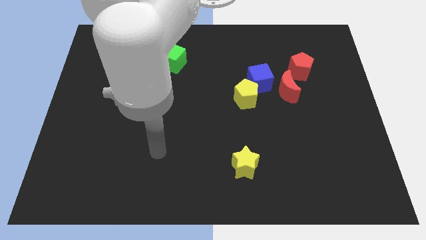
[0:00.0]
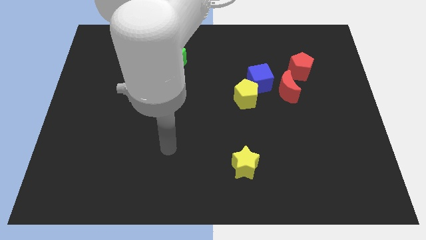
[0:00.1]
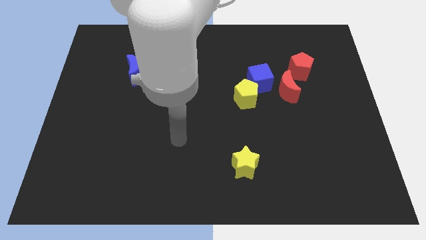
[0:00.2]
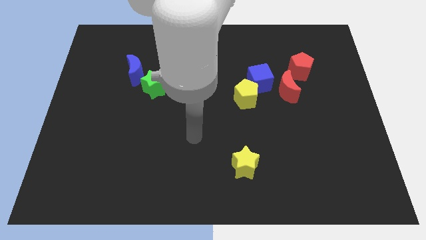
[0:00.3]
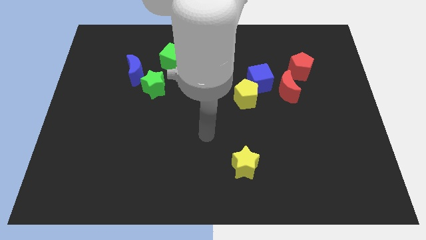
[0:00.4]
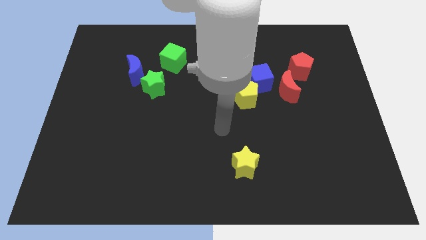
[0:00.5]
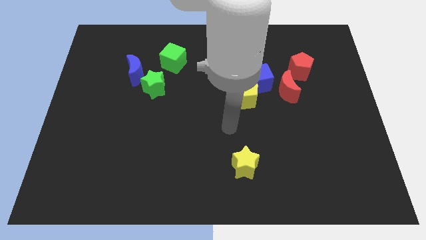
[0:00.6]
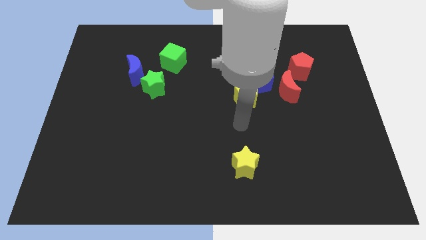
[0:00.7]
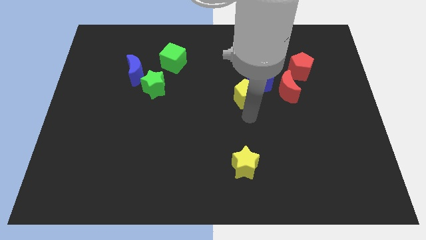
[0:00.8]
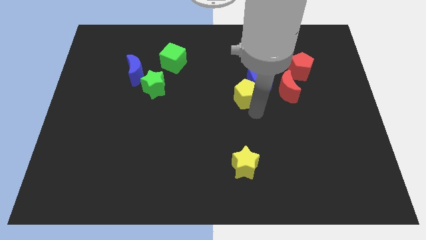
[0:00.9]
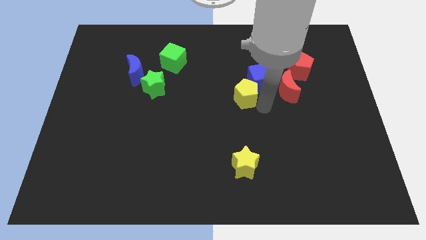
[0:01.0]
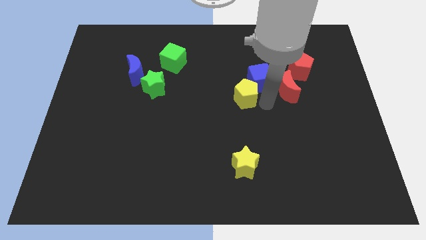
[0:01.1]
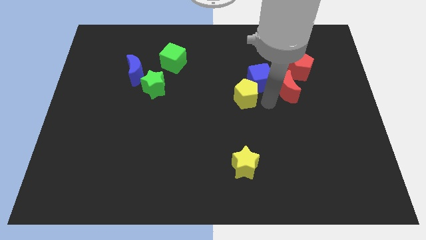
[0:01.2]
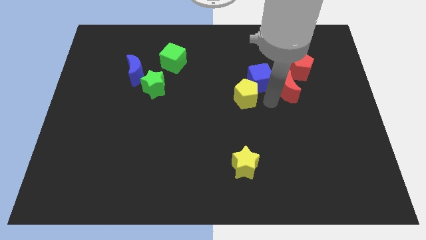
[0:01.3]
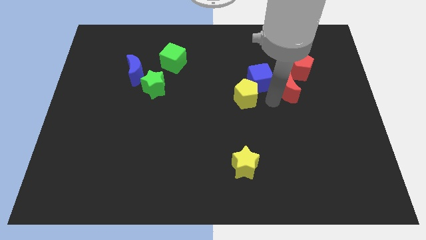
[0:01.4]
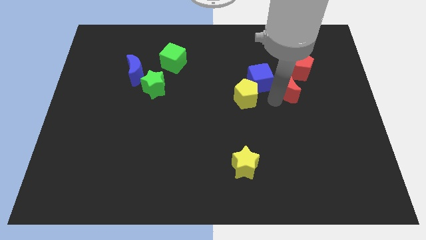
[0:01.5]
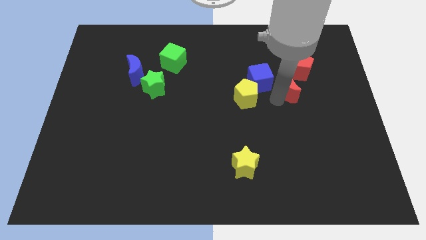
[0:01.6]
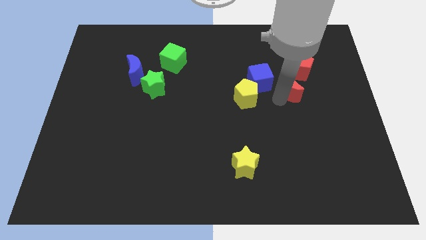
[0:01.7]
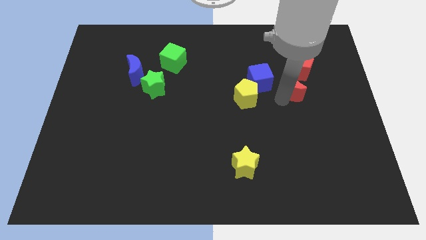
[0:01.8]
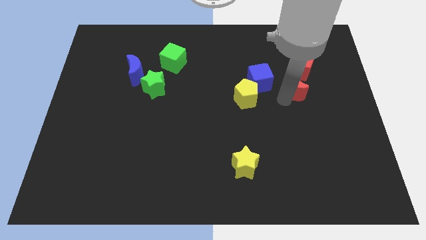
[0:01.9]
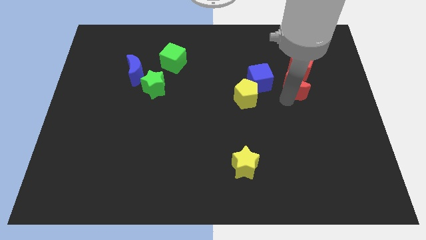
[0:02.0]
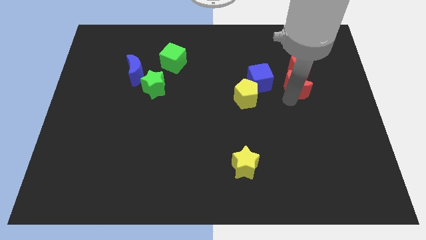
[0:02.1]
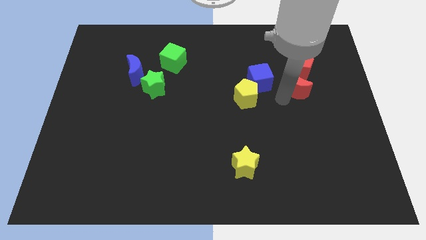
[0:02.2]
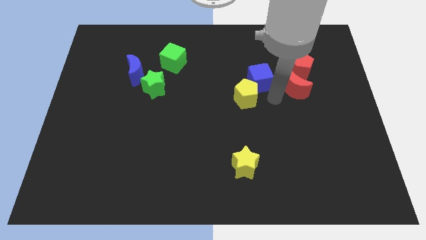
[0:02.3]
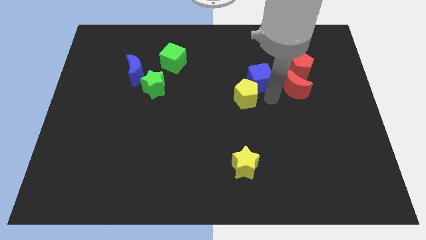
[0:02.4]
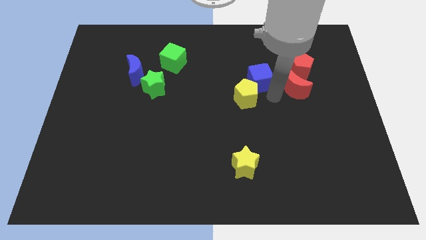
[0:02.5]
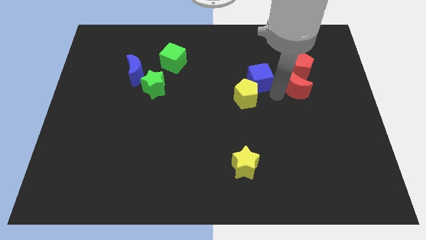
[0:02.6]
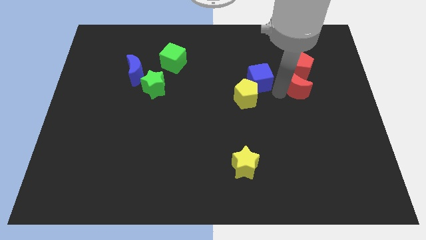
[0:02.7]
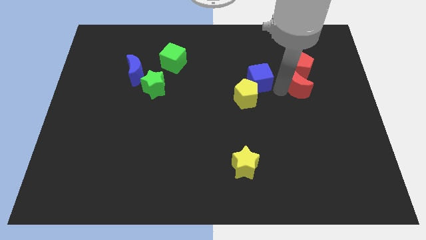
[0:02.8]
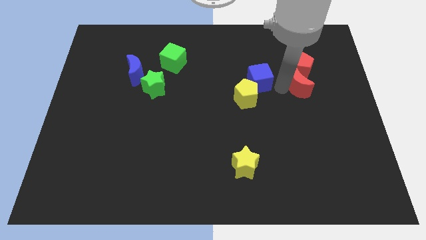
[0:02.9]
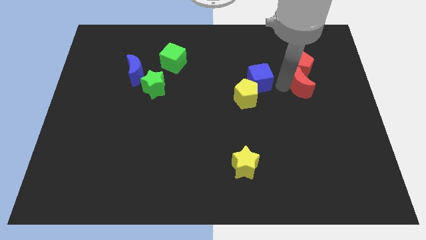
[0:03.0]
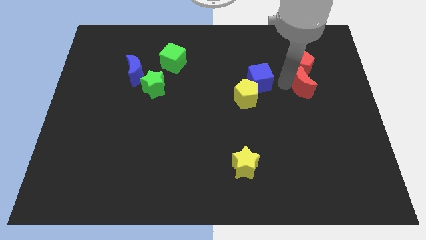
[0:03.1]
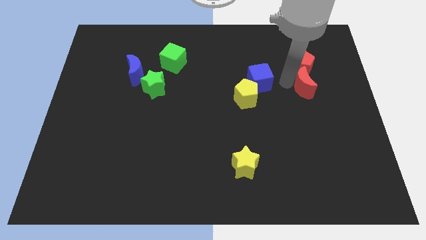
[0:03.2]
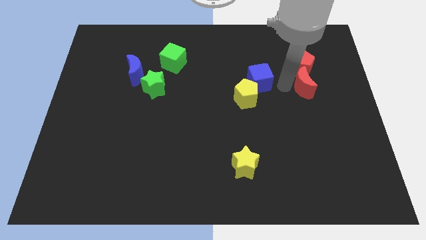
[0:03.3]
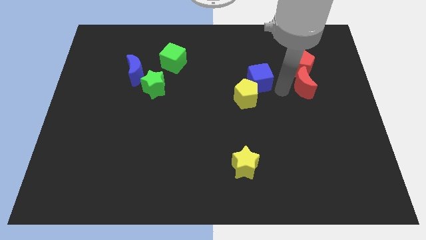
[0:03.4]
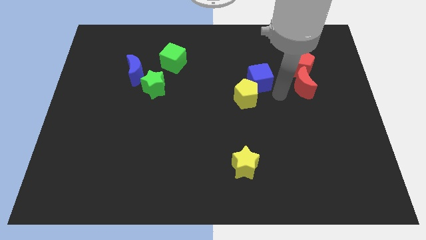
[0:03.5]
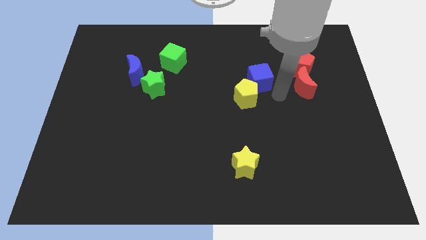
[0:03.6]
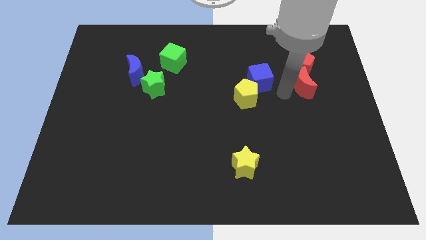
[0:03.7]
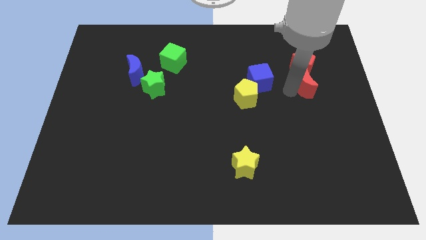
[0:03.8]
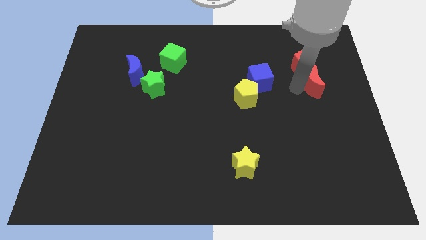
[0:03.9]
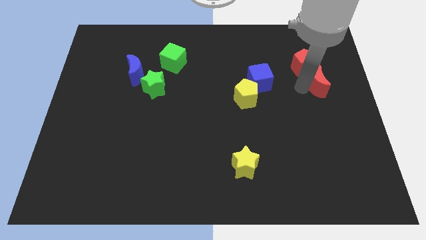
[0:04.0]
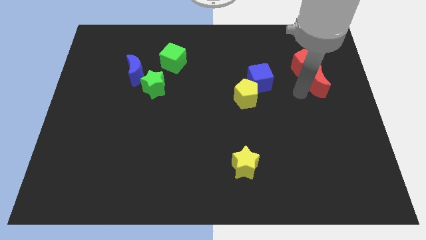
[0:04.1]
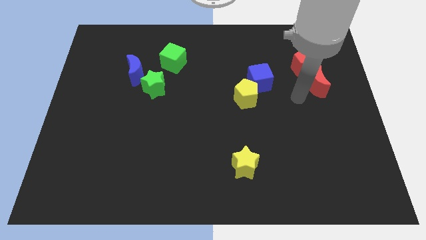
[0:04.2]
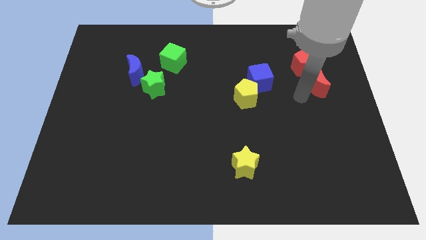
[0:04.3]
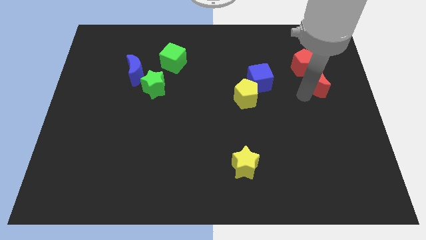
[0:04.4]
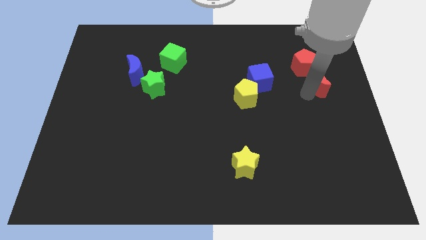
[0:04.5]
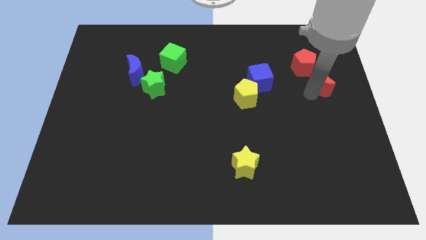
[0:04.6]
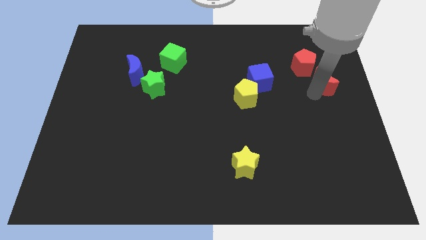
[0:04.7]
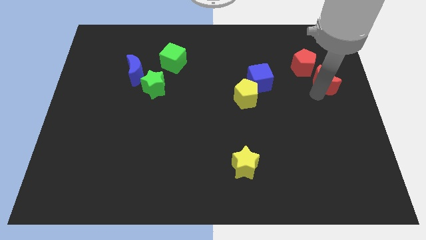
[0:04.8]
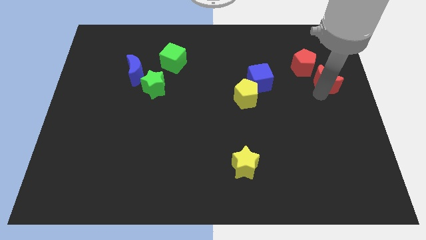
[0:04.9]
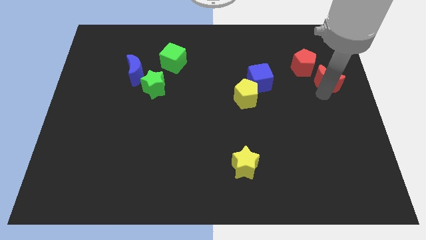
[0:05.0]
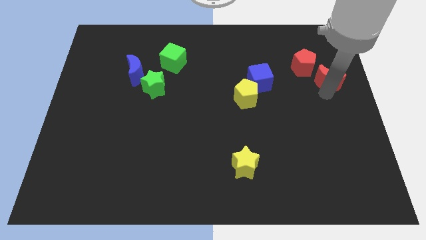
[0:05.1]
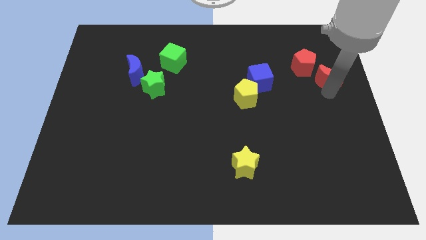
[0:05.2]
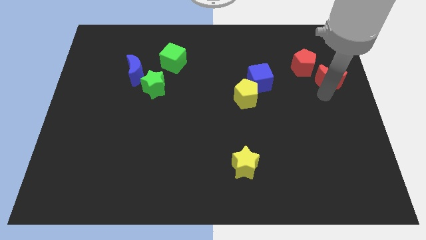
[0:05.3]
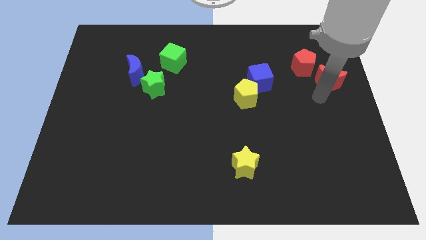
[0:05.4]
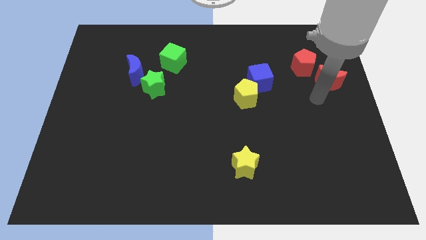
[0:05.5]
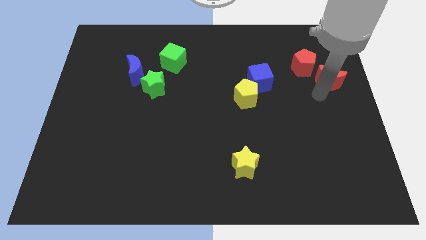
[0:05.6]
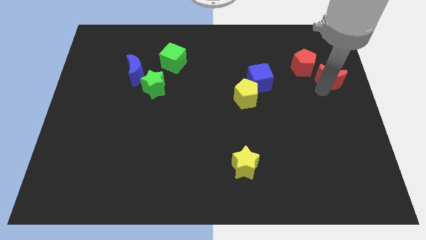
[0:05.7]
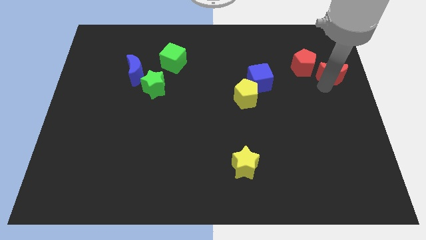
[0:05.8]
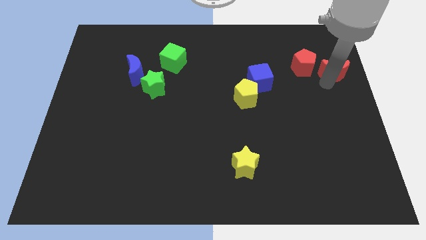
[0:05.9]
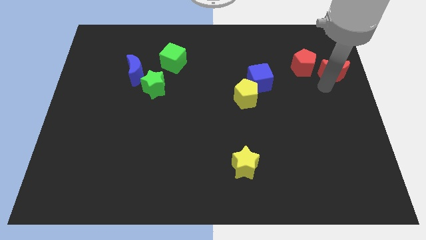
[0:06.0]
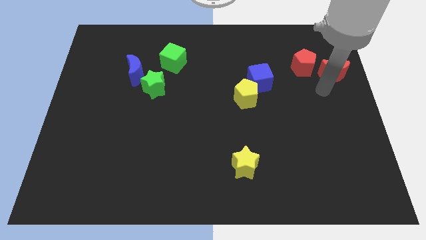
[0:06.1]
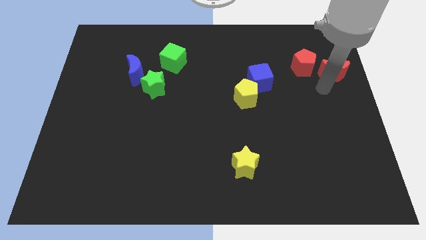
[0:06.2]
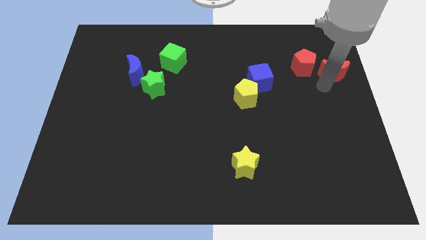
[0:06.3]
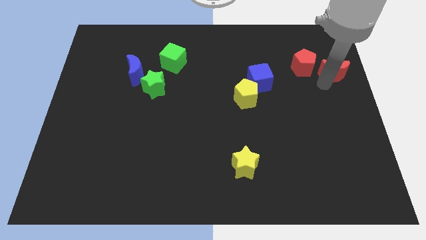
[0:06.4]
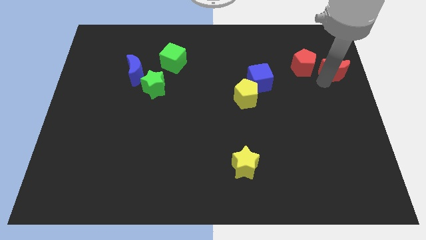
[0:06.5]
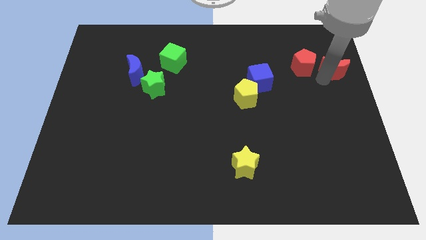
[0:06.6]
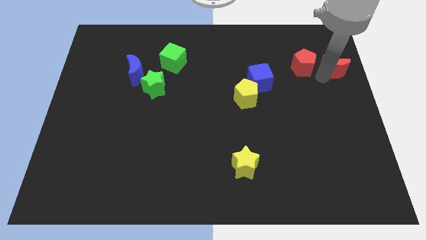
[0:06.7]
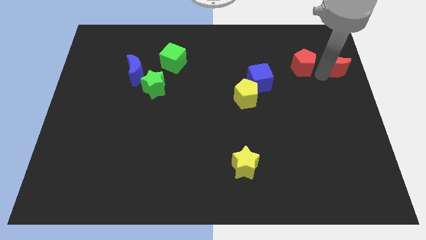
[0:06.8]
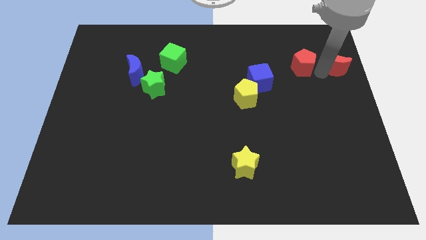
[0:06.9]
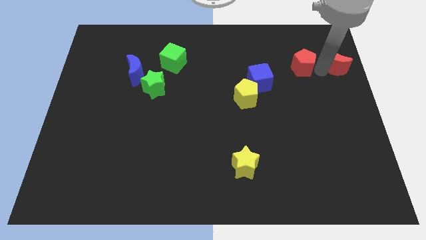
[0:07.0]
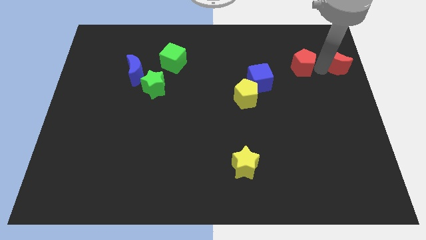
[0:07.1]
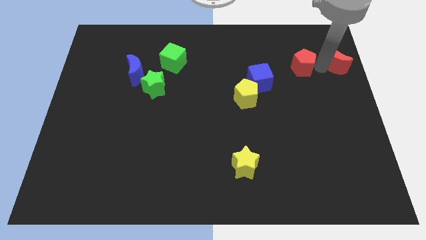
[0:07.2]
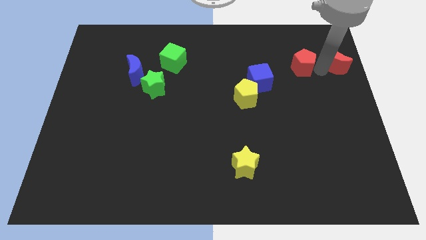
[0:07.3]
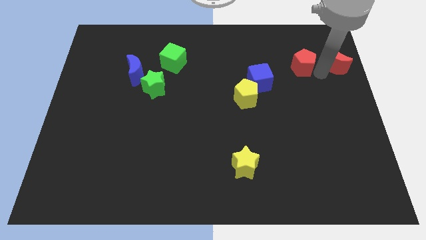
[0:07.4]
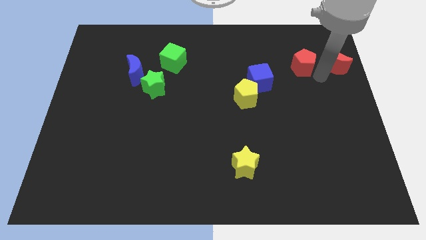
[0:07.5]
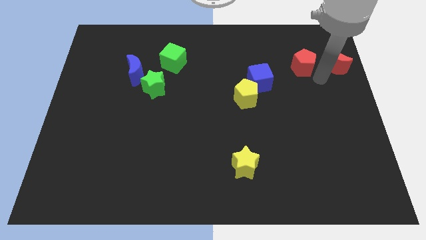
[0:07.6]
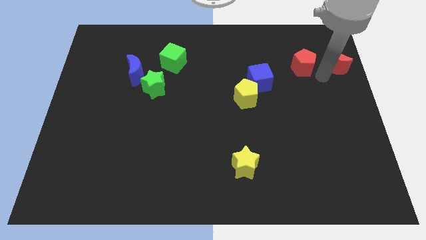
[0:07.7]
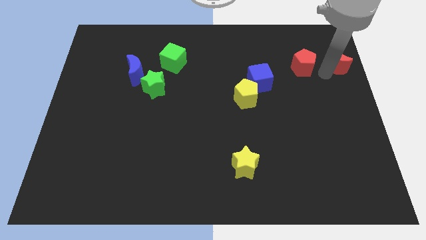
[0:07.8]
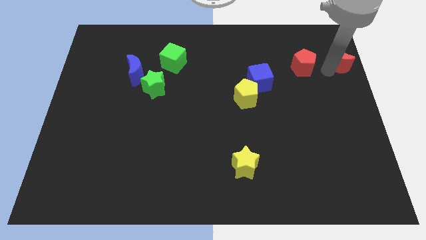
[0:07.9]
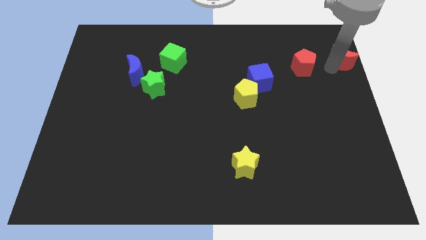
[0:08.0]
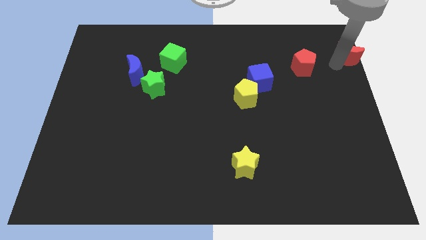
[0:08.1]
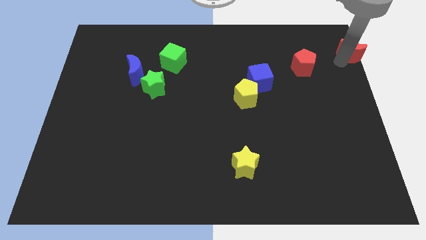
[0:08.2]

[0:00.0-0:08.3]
put the red moon to the top right
